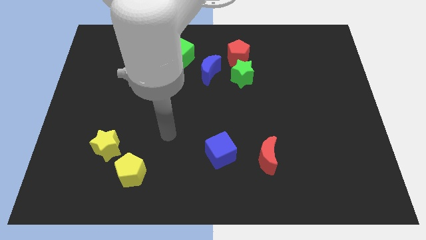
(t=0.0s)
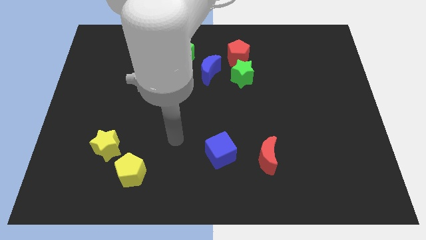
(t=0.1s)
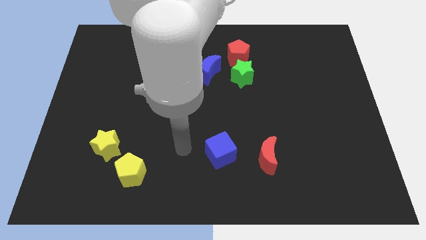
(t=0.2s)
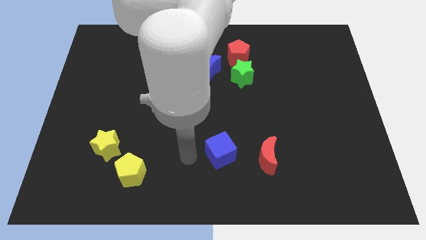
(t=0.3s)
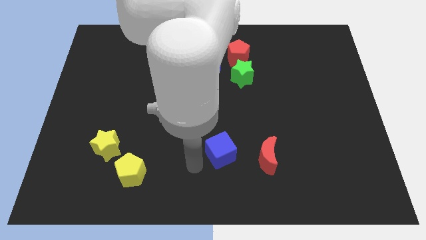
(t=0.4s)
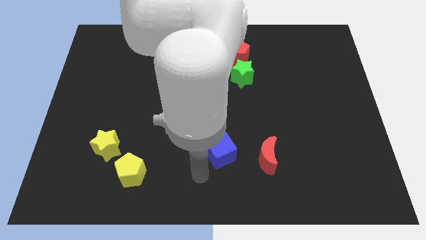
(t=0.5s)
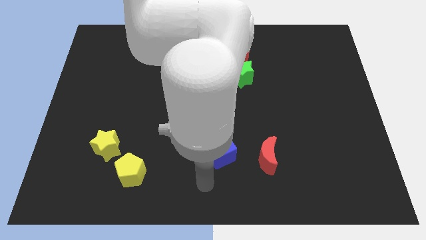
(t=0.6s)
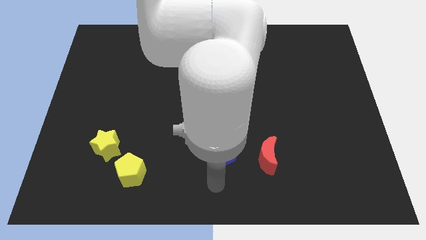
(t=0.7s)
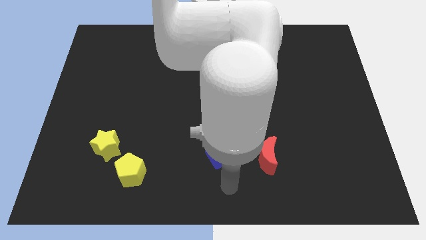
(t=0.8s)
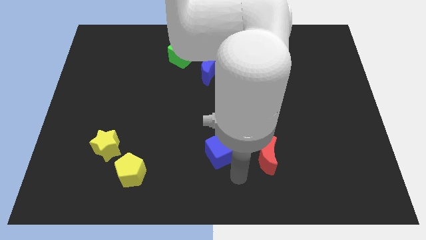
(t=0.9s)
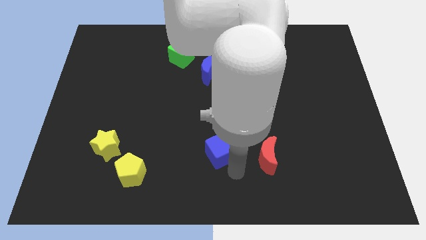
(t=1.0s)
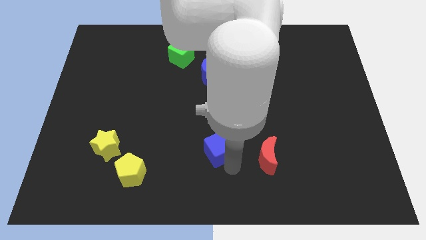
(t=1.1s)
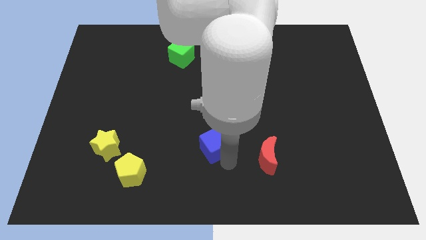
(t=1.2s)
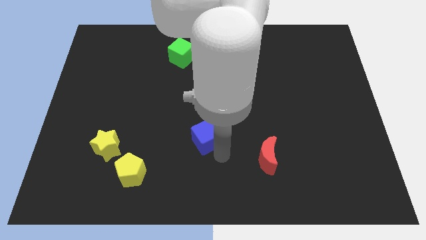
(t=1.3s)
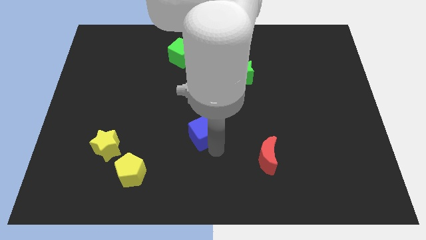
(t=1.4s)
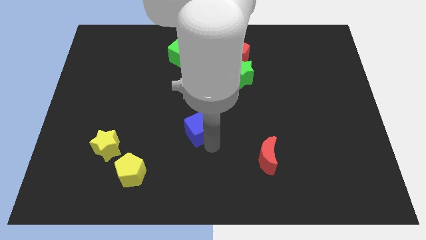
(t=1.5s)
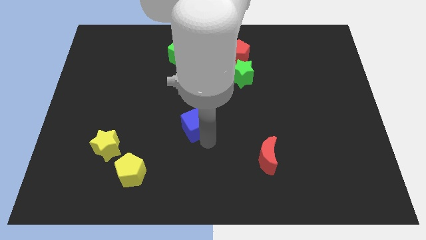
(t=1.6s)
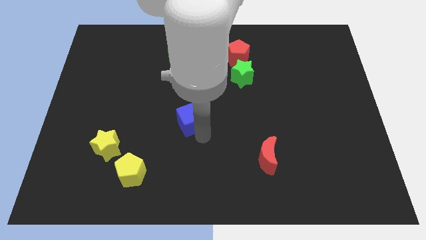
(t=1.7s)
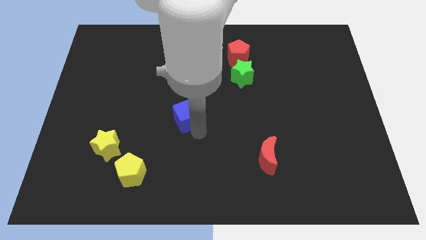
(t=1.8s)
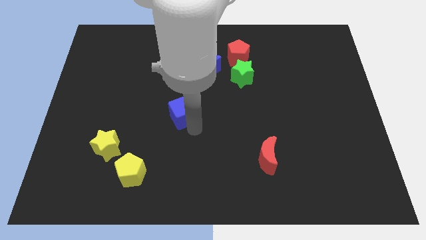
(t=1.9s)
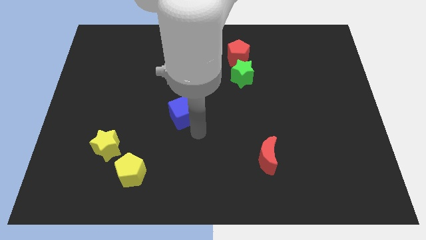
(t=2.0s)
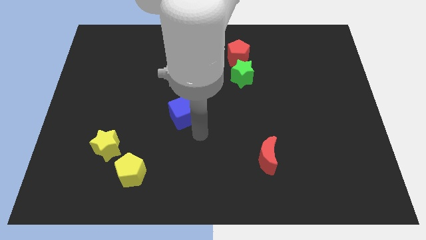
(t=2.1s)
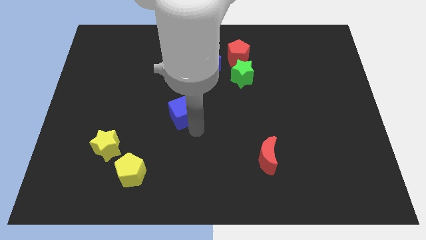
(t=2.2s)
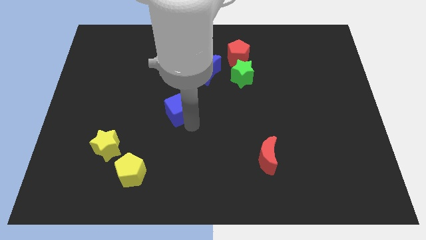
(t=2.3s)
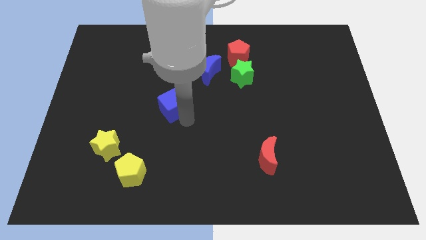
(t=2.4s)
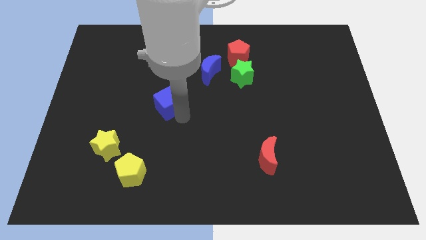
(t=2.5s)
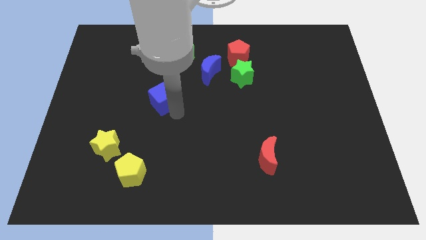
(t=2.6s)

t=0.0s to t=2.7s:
push the blue cube up and then to the left

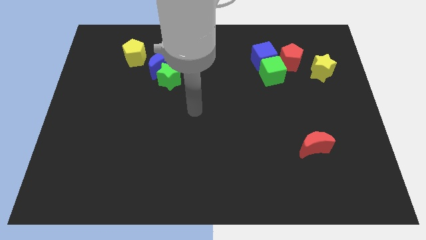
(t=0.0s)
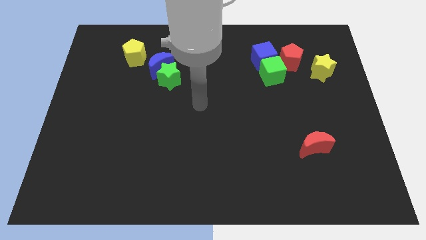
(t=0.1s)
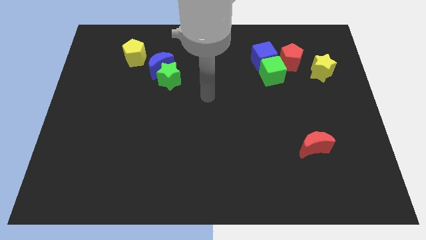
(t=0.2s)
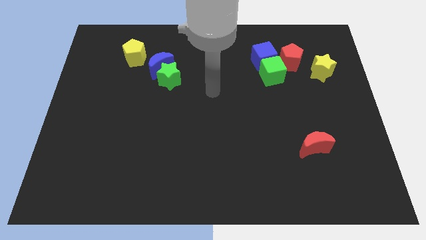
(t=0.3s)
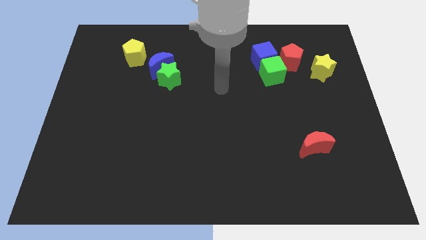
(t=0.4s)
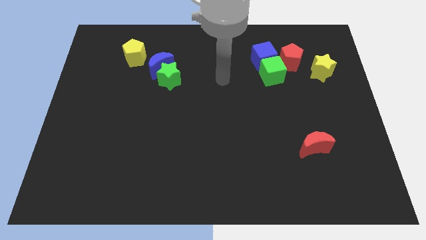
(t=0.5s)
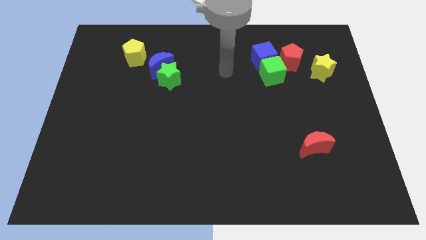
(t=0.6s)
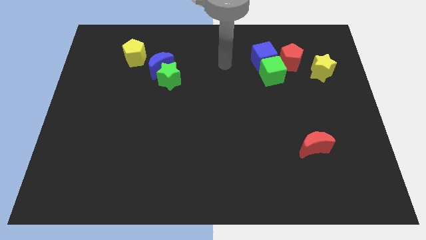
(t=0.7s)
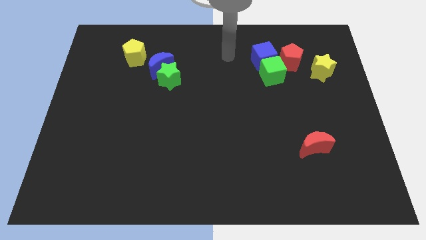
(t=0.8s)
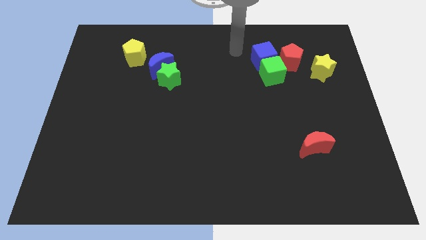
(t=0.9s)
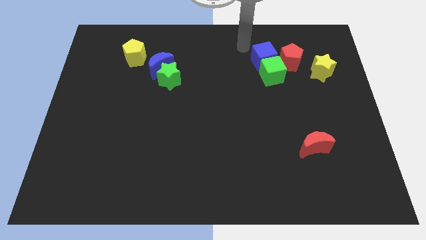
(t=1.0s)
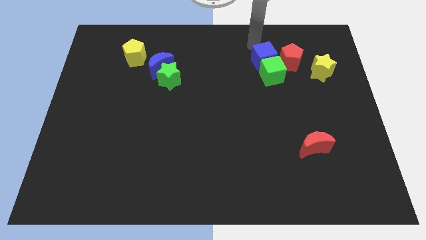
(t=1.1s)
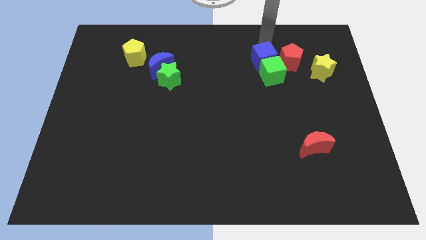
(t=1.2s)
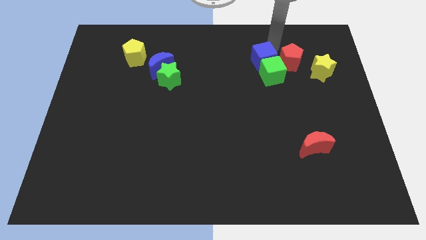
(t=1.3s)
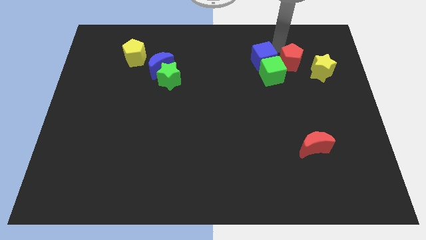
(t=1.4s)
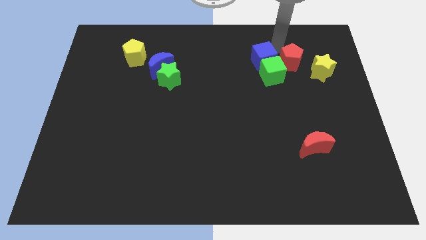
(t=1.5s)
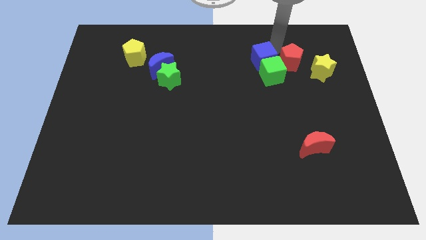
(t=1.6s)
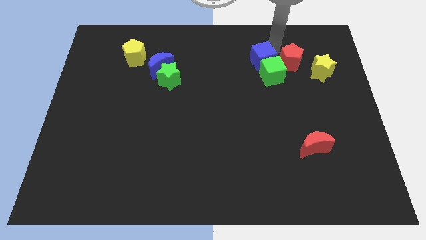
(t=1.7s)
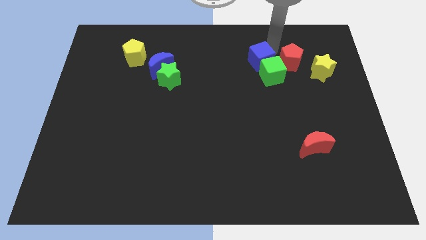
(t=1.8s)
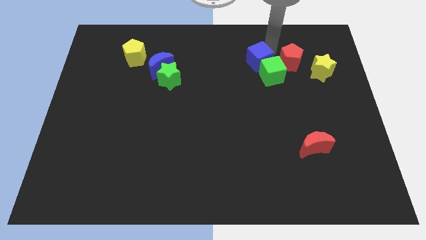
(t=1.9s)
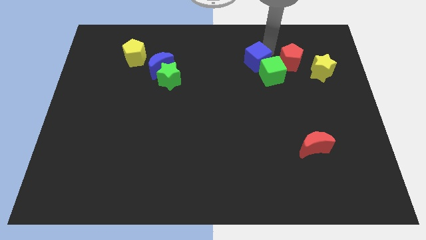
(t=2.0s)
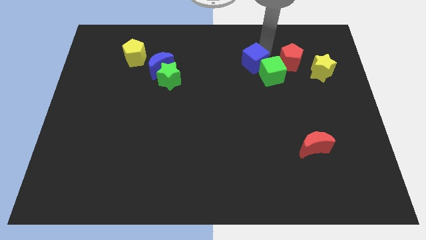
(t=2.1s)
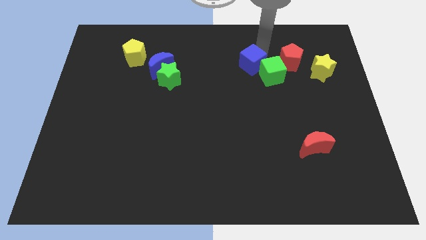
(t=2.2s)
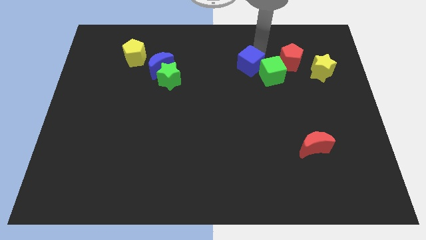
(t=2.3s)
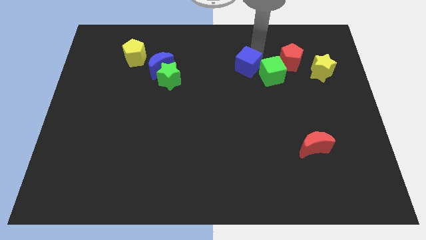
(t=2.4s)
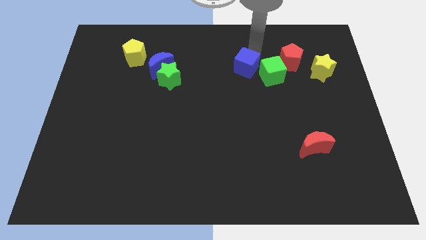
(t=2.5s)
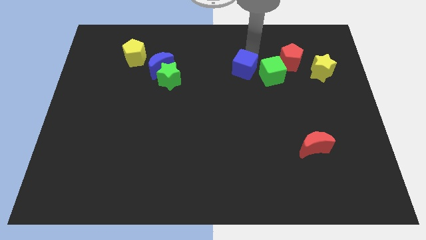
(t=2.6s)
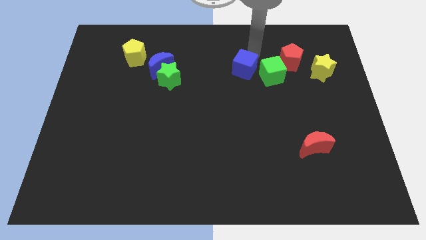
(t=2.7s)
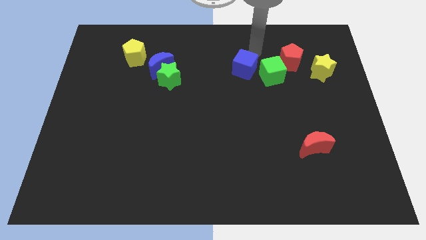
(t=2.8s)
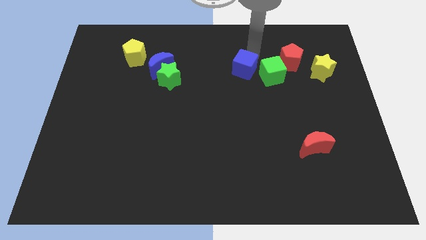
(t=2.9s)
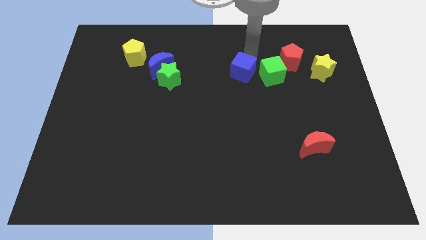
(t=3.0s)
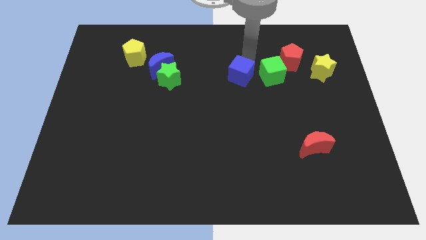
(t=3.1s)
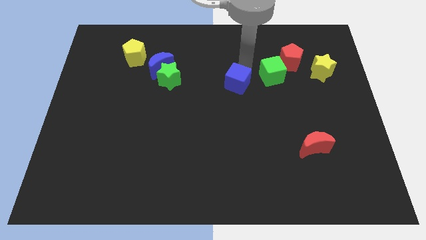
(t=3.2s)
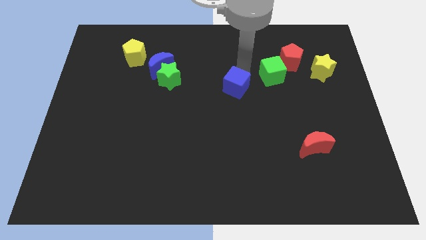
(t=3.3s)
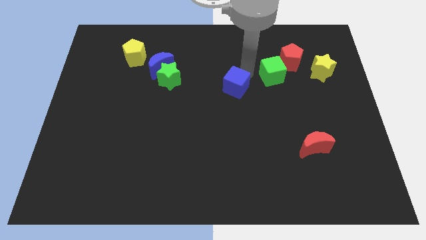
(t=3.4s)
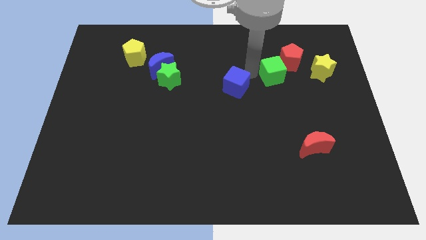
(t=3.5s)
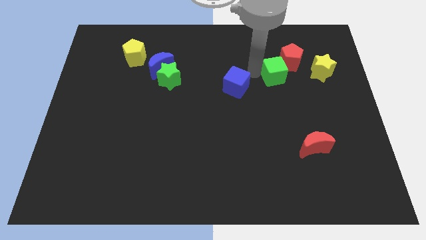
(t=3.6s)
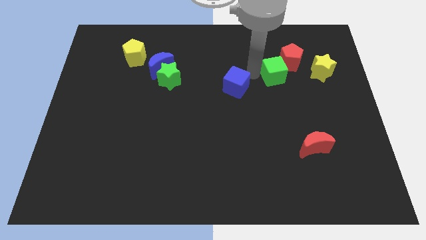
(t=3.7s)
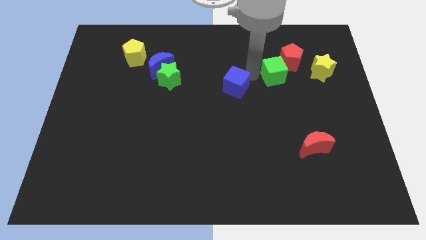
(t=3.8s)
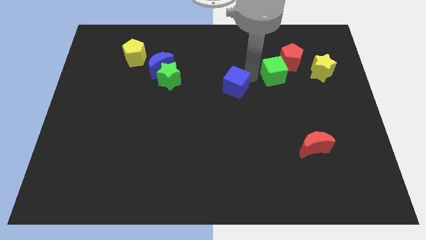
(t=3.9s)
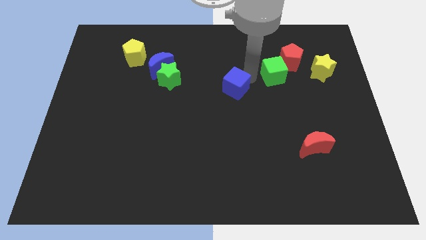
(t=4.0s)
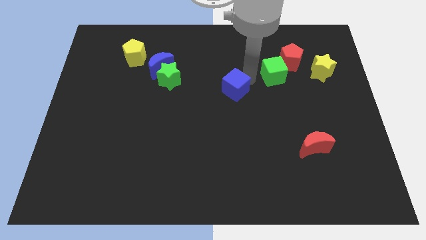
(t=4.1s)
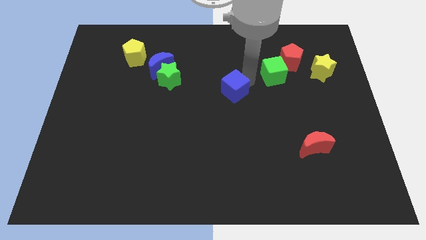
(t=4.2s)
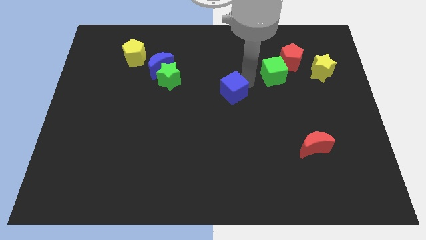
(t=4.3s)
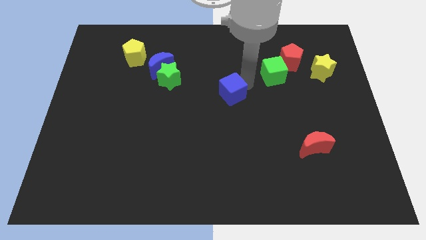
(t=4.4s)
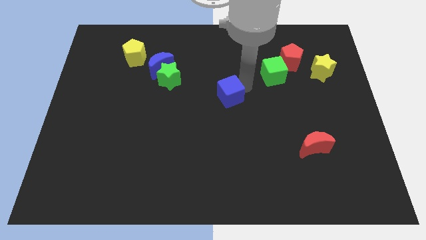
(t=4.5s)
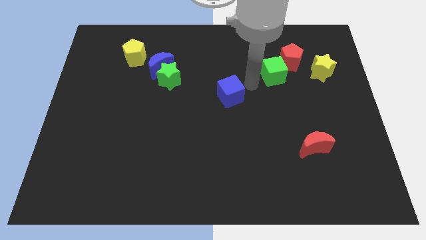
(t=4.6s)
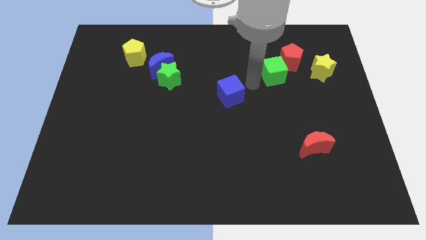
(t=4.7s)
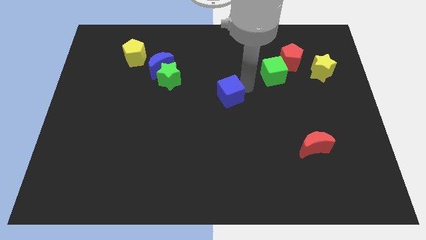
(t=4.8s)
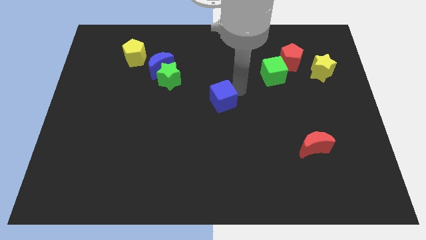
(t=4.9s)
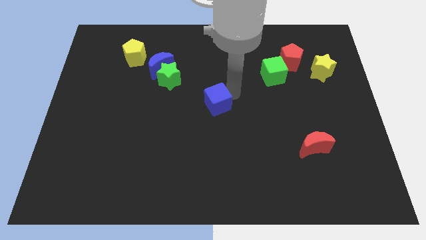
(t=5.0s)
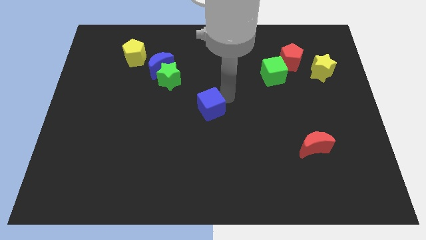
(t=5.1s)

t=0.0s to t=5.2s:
push the blue cube down and to the left diagonally
